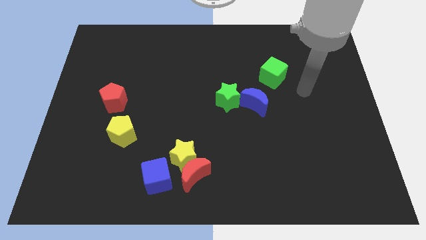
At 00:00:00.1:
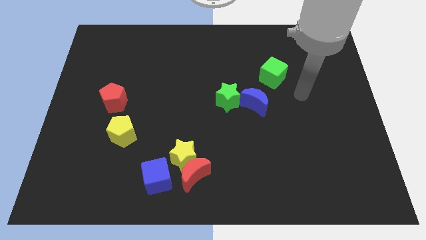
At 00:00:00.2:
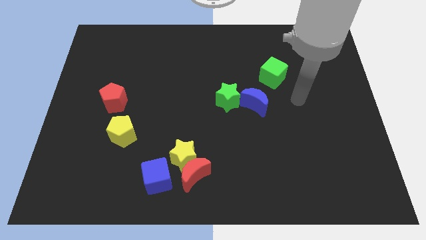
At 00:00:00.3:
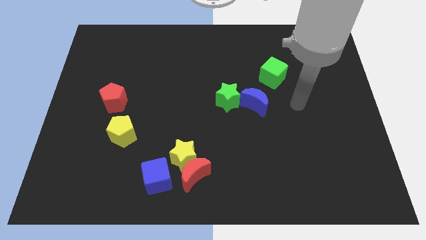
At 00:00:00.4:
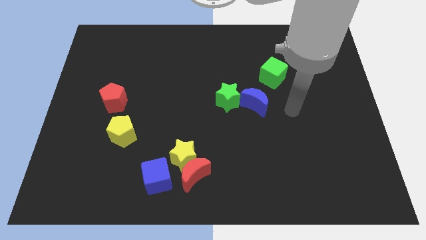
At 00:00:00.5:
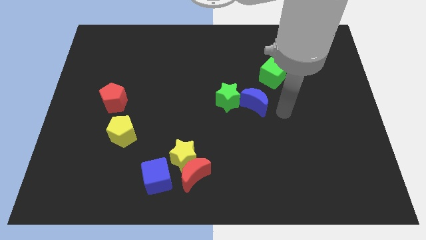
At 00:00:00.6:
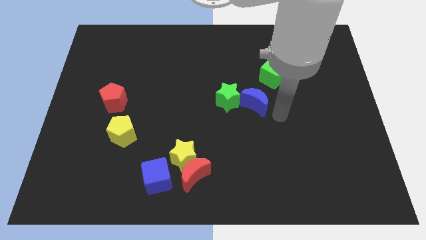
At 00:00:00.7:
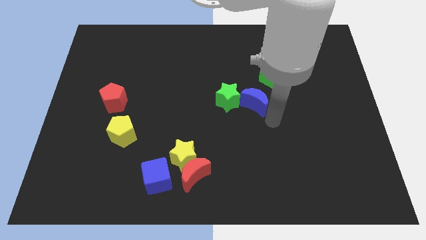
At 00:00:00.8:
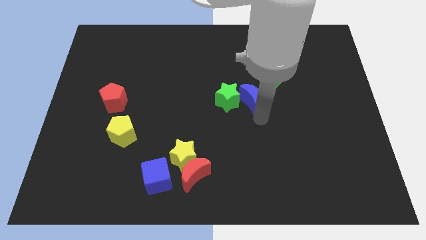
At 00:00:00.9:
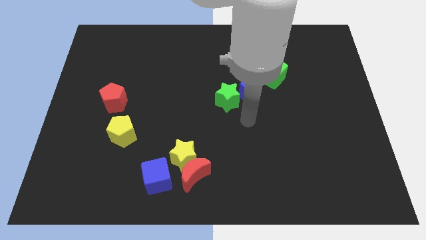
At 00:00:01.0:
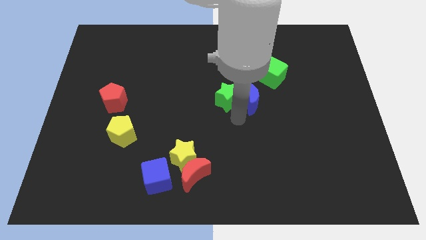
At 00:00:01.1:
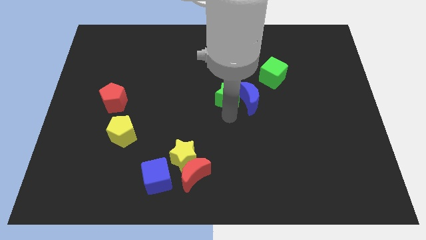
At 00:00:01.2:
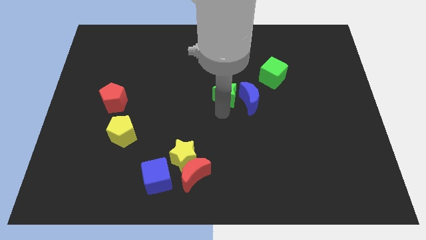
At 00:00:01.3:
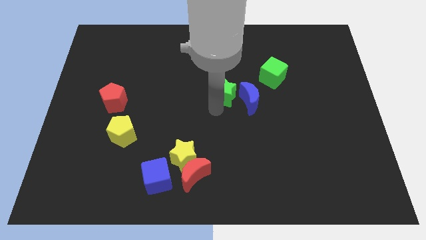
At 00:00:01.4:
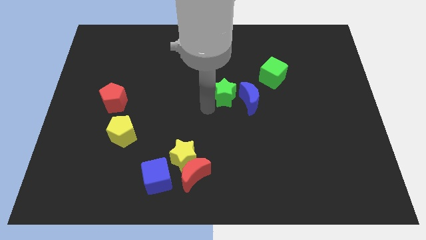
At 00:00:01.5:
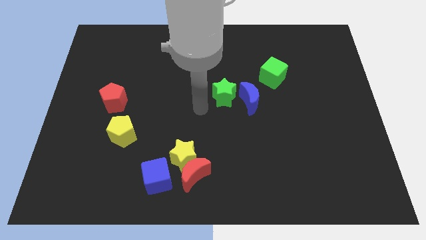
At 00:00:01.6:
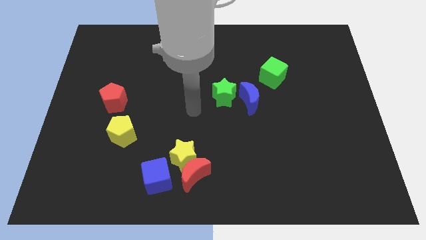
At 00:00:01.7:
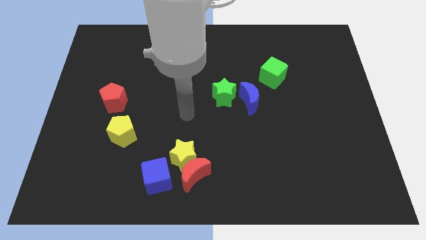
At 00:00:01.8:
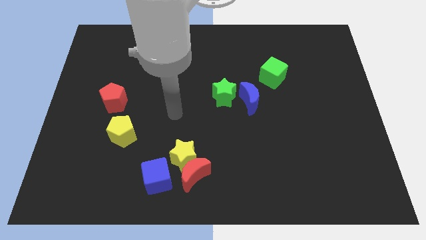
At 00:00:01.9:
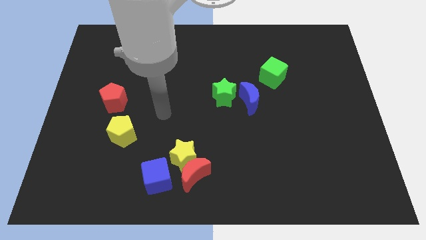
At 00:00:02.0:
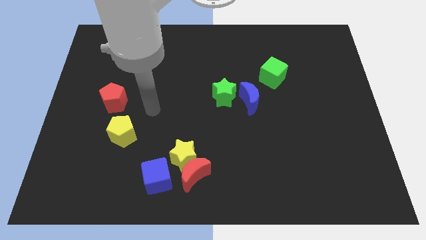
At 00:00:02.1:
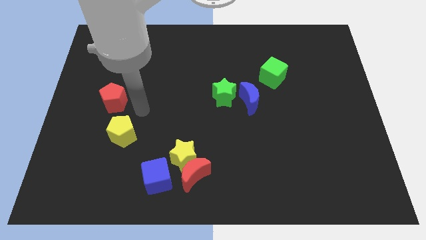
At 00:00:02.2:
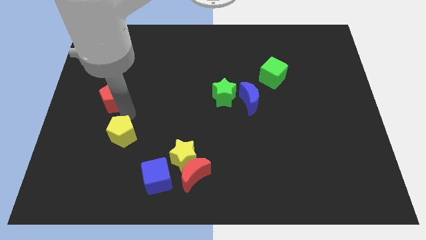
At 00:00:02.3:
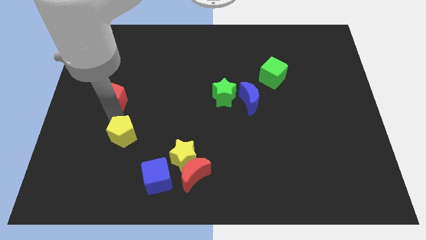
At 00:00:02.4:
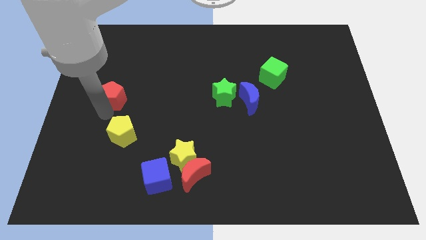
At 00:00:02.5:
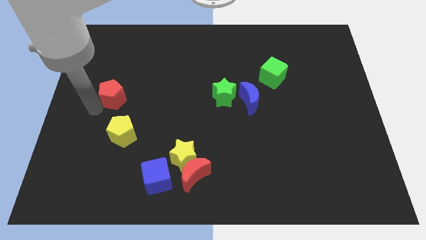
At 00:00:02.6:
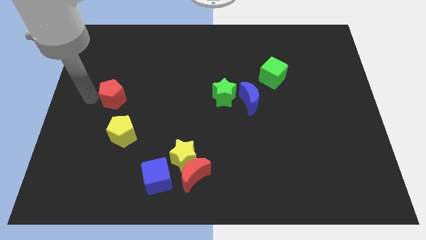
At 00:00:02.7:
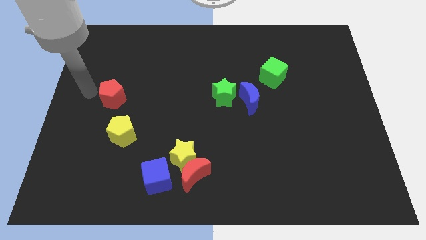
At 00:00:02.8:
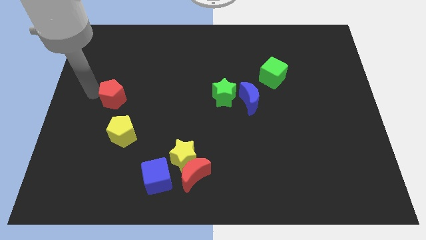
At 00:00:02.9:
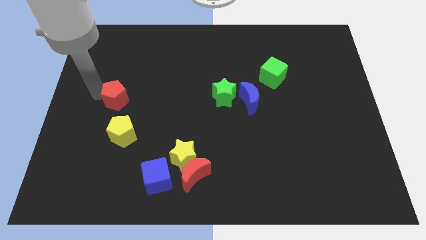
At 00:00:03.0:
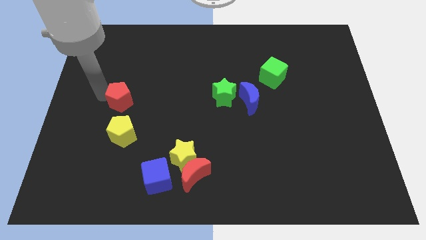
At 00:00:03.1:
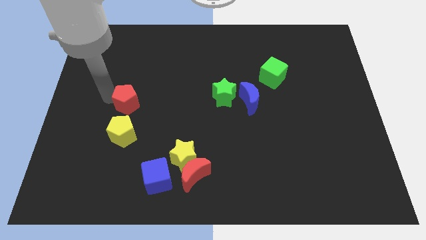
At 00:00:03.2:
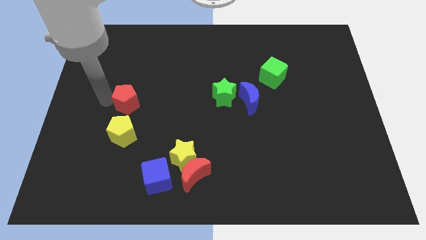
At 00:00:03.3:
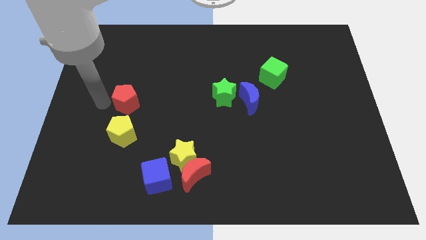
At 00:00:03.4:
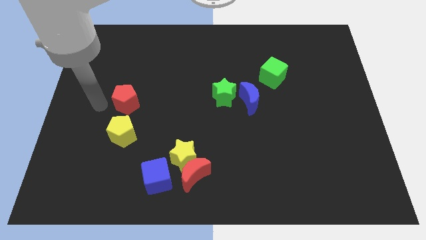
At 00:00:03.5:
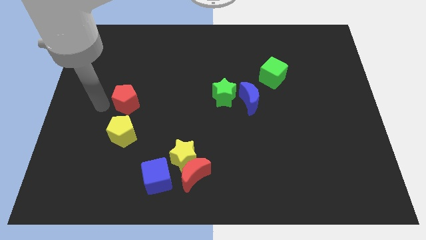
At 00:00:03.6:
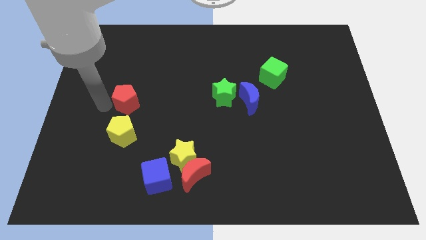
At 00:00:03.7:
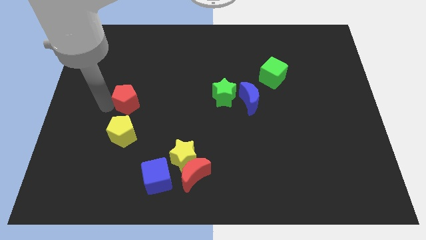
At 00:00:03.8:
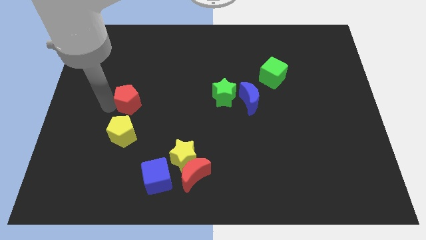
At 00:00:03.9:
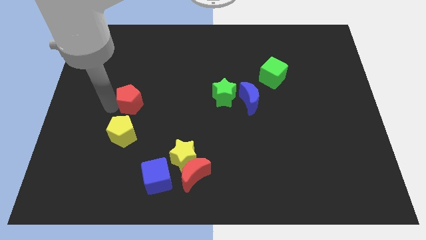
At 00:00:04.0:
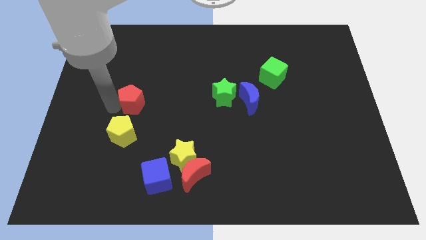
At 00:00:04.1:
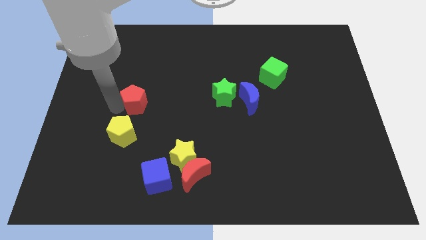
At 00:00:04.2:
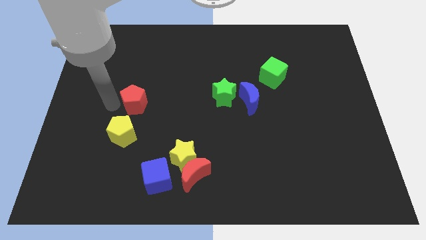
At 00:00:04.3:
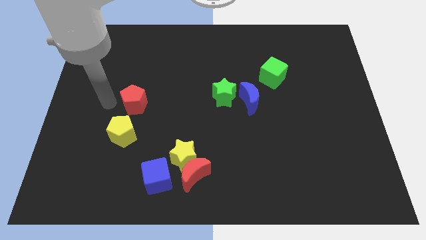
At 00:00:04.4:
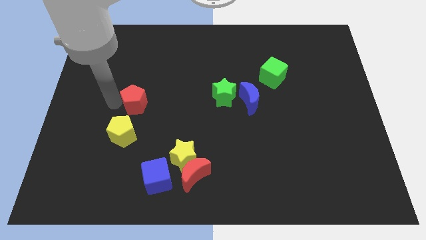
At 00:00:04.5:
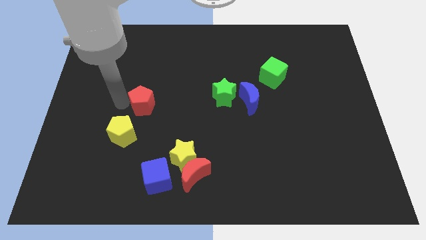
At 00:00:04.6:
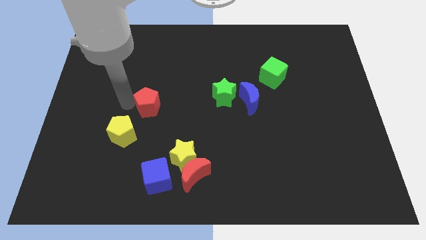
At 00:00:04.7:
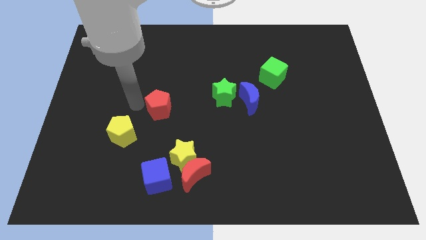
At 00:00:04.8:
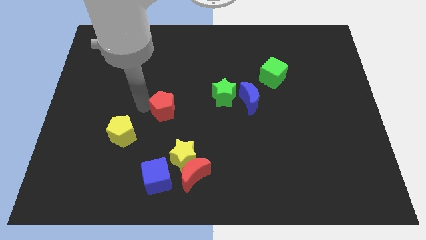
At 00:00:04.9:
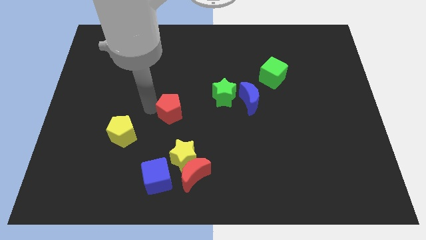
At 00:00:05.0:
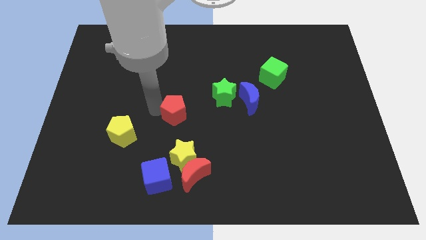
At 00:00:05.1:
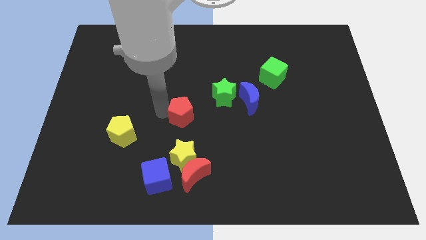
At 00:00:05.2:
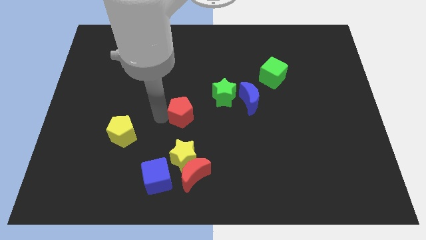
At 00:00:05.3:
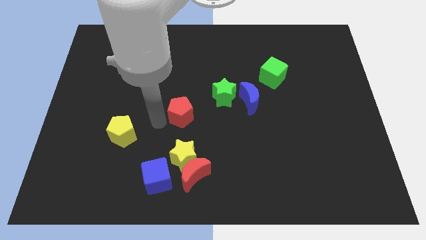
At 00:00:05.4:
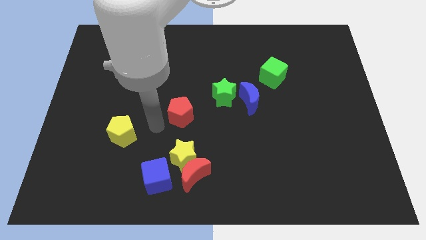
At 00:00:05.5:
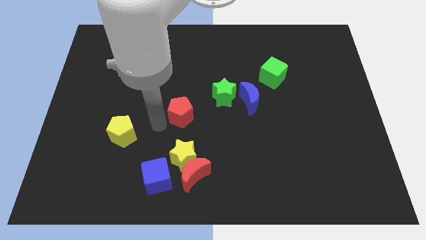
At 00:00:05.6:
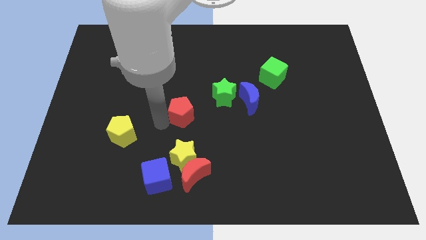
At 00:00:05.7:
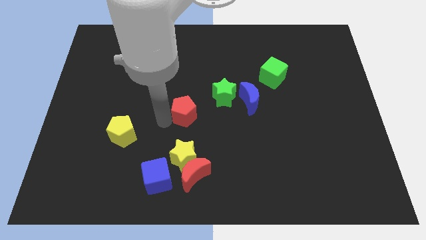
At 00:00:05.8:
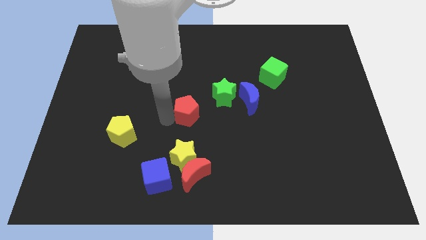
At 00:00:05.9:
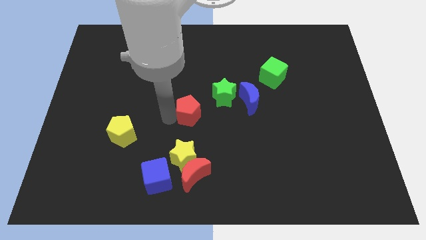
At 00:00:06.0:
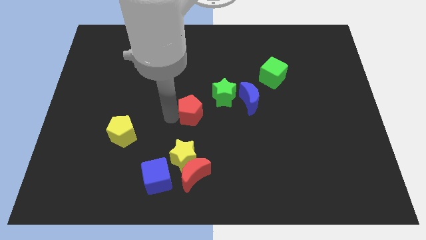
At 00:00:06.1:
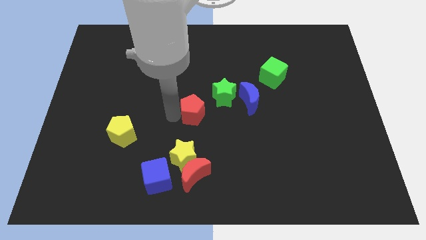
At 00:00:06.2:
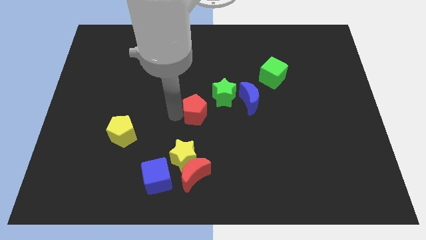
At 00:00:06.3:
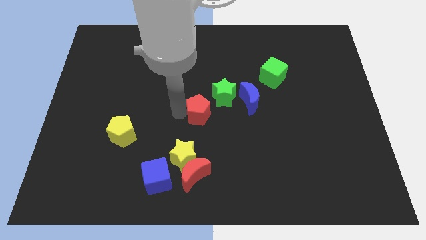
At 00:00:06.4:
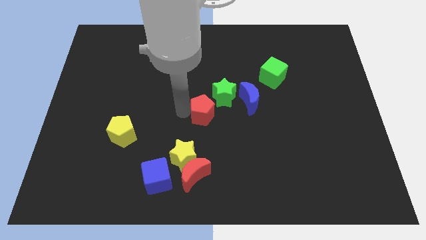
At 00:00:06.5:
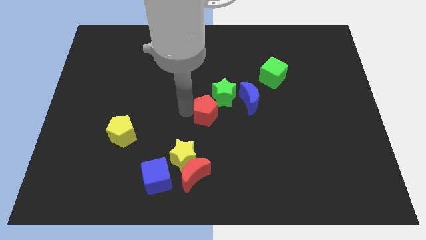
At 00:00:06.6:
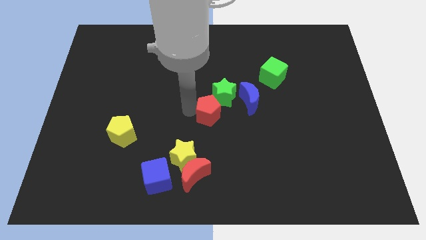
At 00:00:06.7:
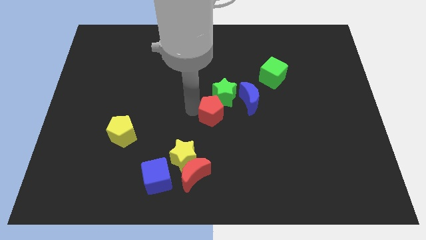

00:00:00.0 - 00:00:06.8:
push the red pentagon next to the green star

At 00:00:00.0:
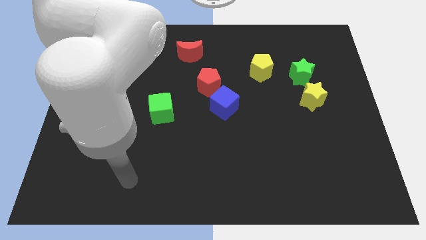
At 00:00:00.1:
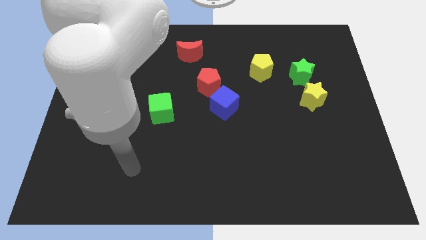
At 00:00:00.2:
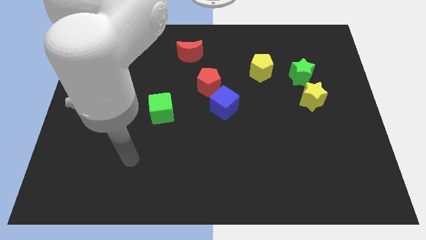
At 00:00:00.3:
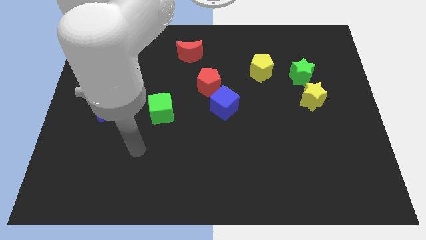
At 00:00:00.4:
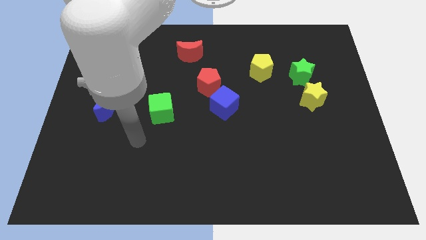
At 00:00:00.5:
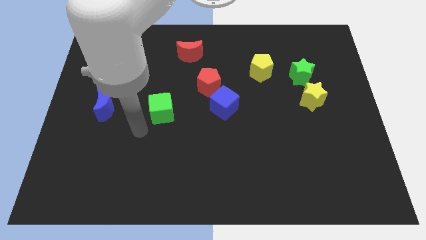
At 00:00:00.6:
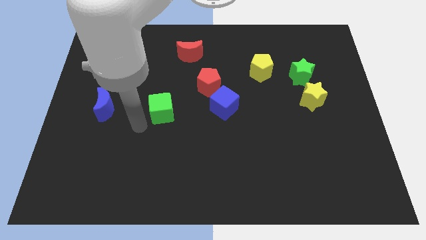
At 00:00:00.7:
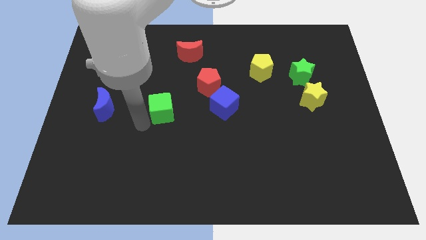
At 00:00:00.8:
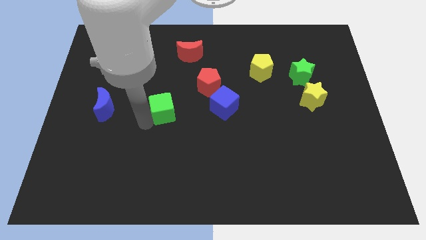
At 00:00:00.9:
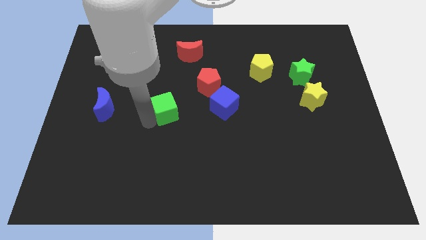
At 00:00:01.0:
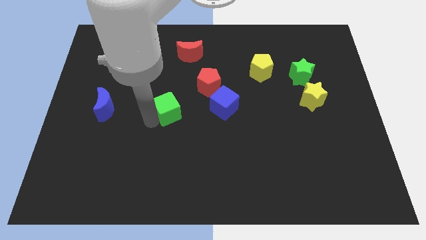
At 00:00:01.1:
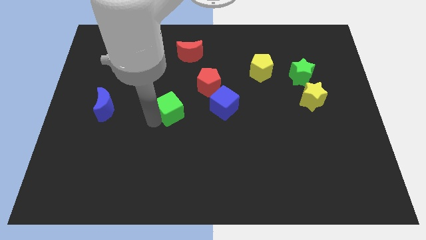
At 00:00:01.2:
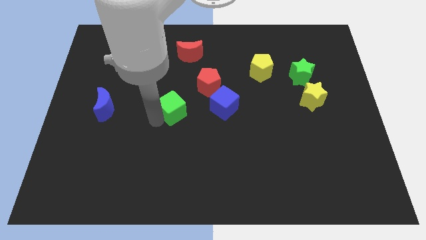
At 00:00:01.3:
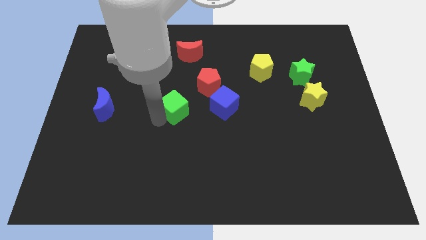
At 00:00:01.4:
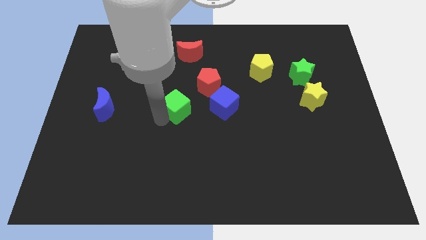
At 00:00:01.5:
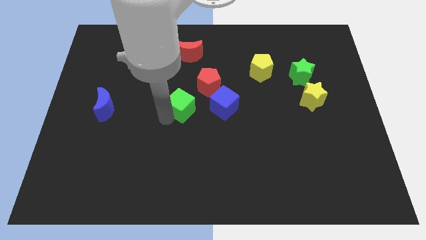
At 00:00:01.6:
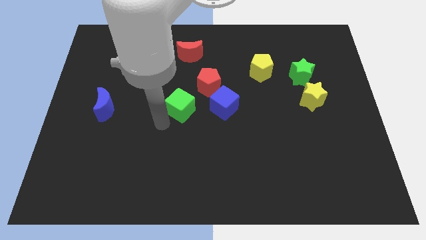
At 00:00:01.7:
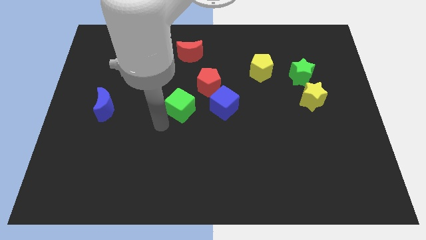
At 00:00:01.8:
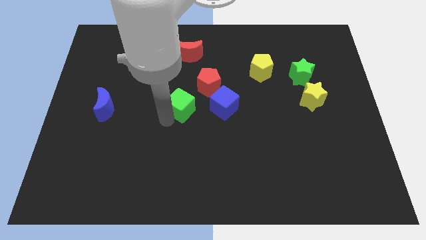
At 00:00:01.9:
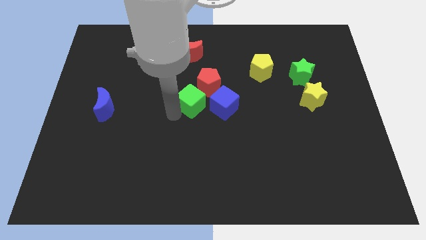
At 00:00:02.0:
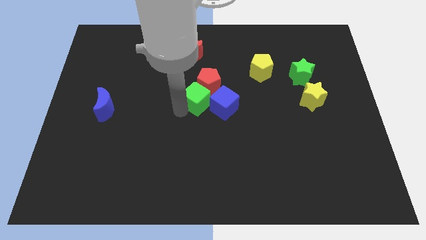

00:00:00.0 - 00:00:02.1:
push the green cube towards the red pentagon
